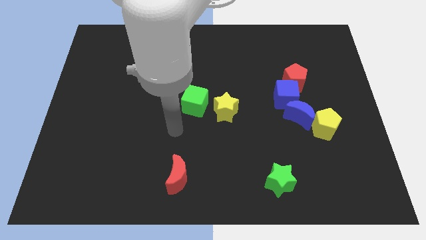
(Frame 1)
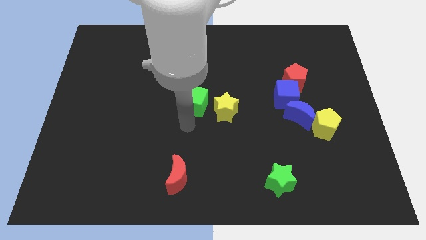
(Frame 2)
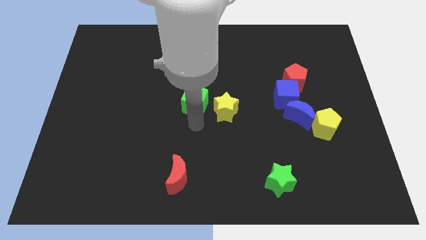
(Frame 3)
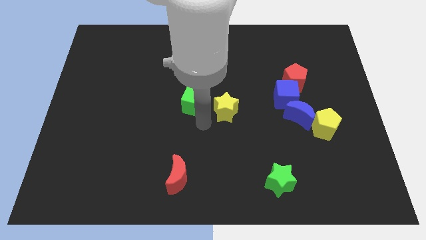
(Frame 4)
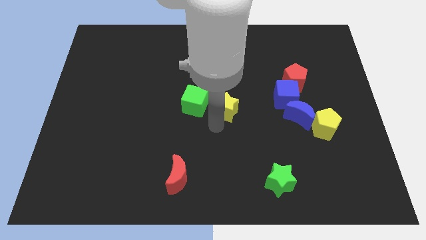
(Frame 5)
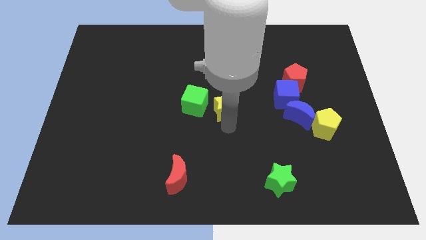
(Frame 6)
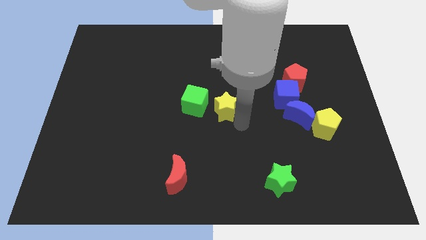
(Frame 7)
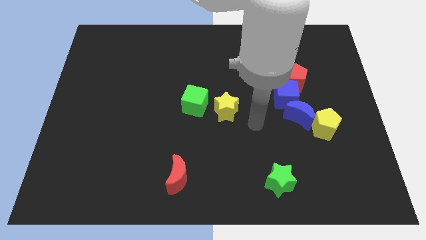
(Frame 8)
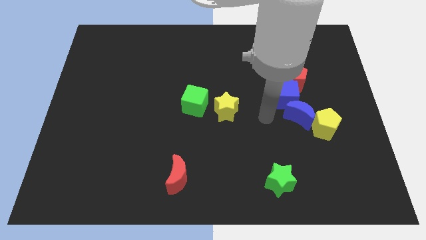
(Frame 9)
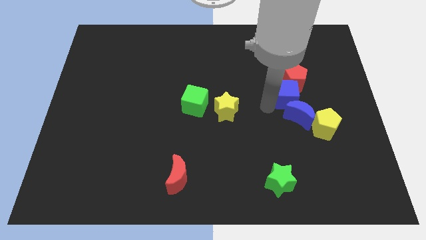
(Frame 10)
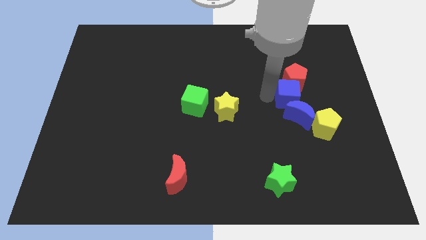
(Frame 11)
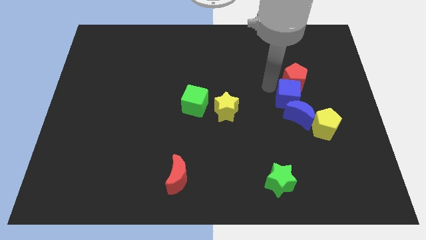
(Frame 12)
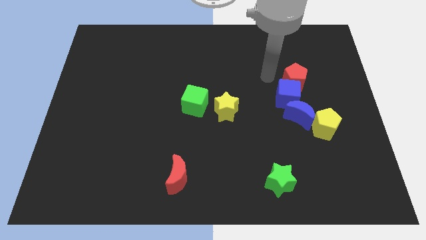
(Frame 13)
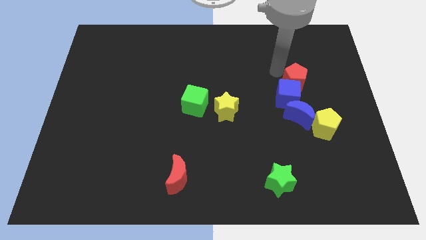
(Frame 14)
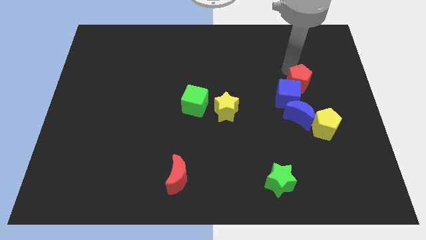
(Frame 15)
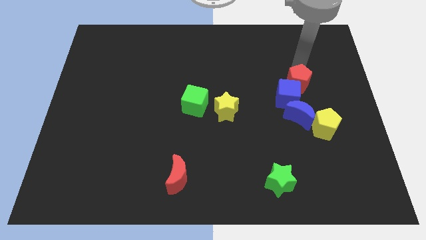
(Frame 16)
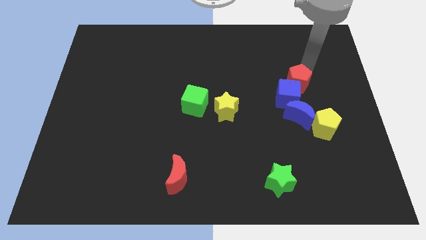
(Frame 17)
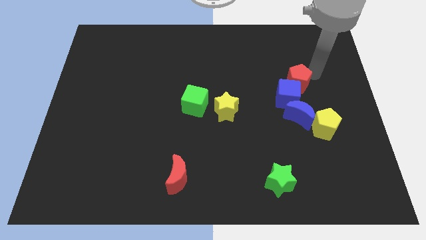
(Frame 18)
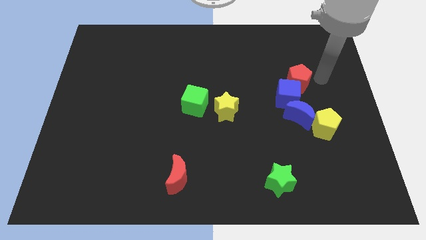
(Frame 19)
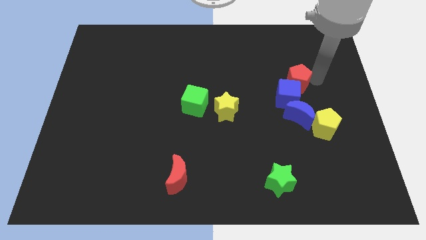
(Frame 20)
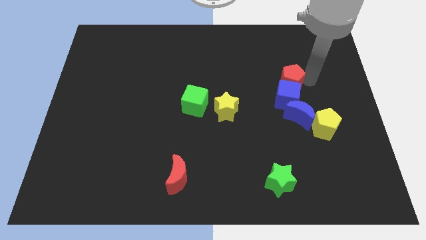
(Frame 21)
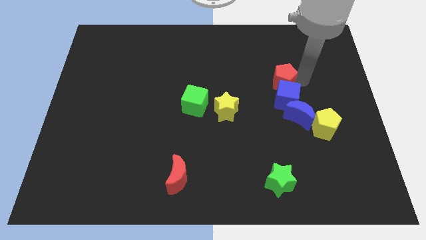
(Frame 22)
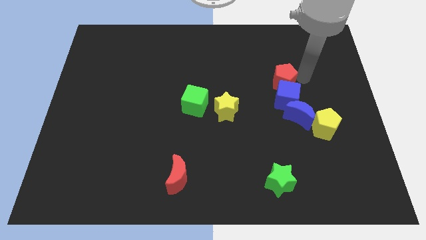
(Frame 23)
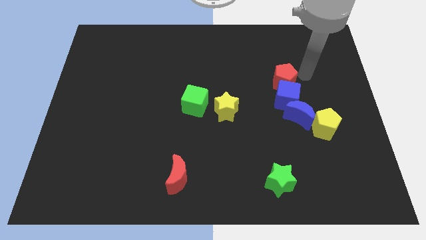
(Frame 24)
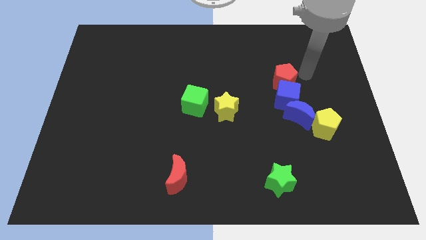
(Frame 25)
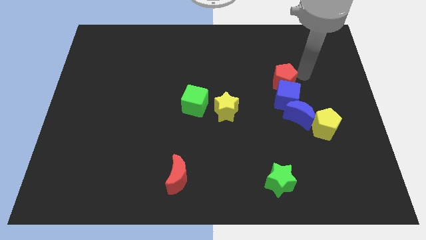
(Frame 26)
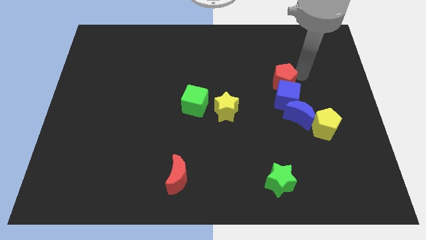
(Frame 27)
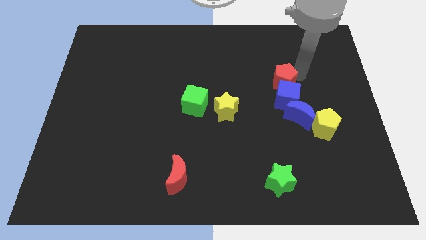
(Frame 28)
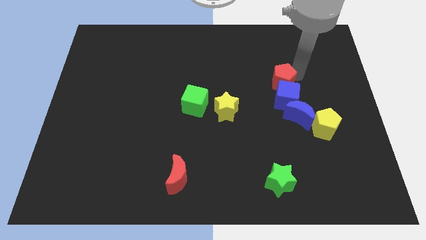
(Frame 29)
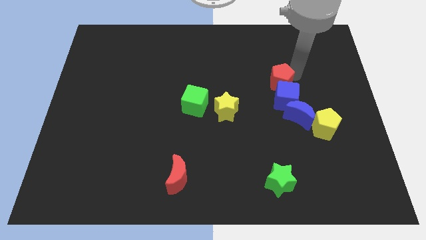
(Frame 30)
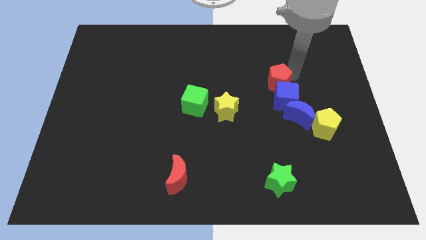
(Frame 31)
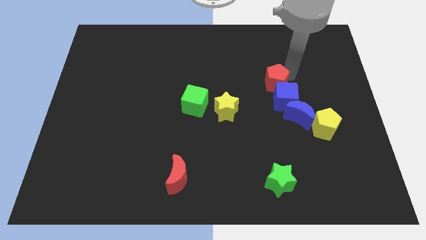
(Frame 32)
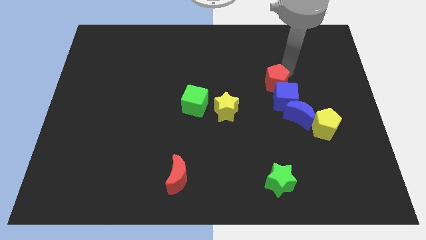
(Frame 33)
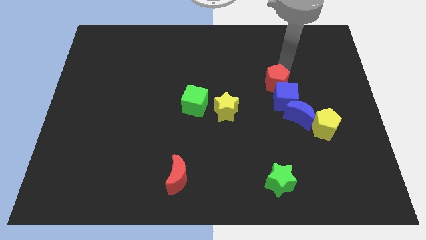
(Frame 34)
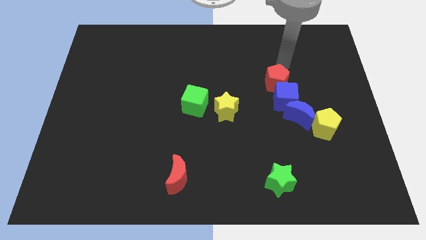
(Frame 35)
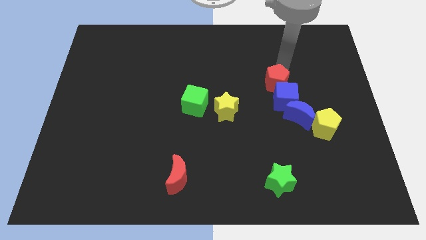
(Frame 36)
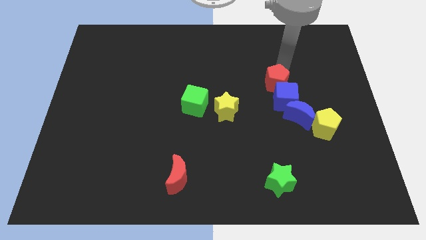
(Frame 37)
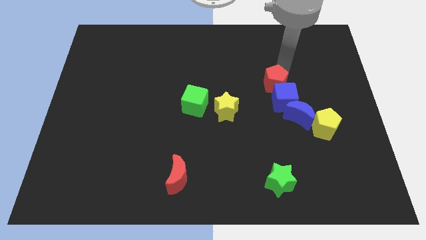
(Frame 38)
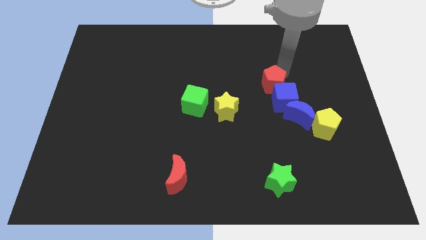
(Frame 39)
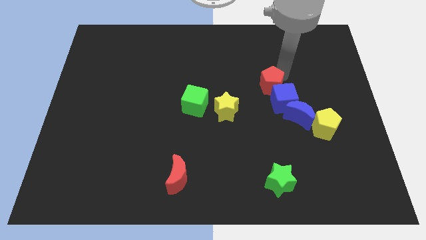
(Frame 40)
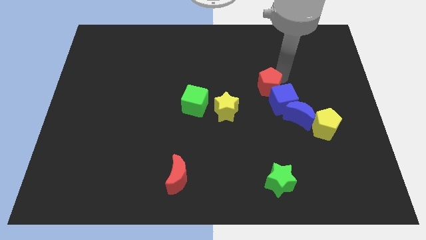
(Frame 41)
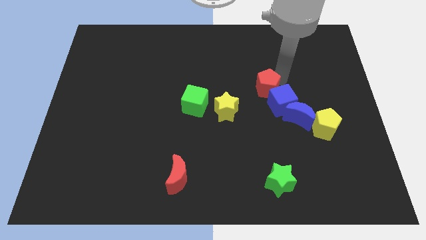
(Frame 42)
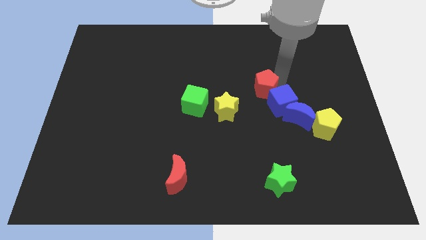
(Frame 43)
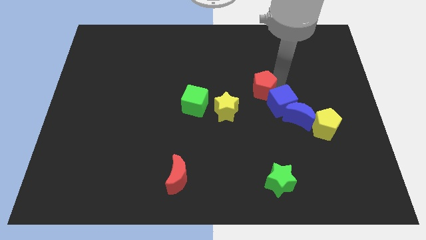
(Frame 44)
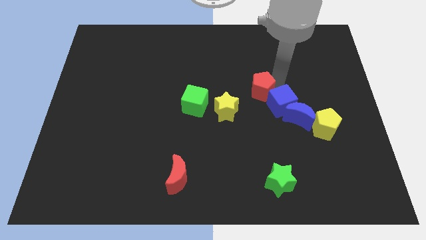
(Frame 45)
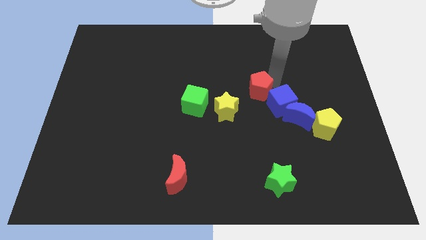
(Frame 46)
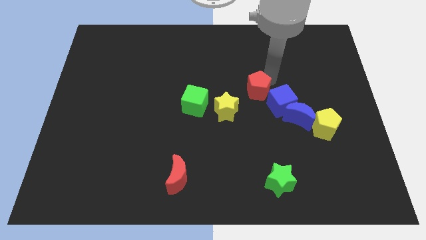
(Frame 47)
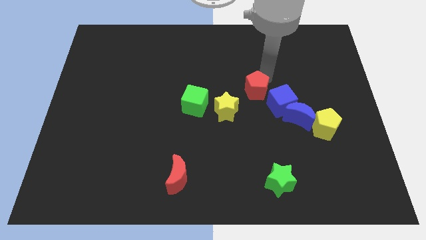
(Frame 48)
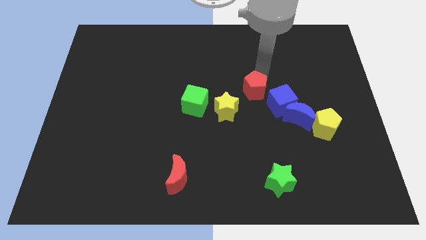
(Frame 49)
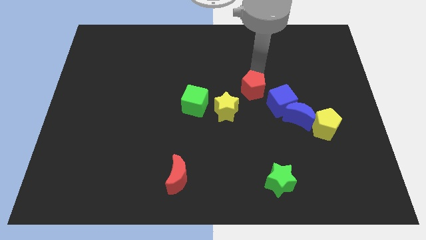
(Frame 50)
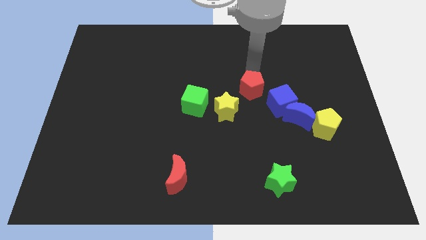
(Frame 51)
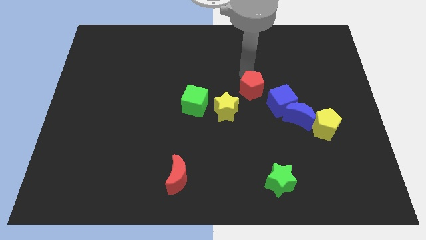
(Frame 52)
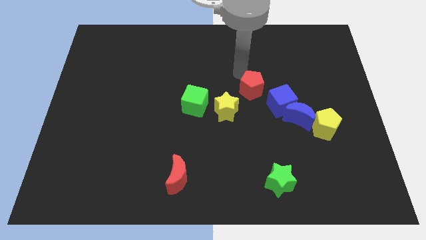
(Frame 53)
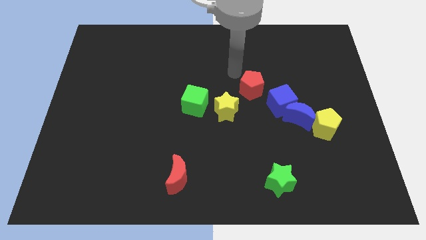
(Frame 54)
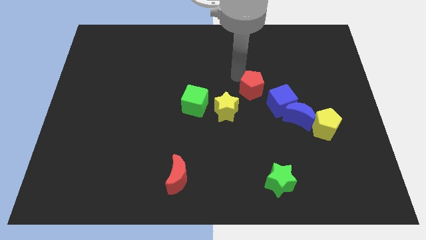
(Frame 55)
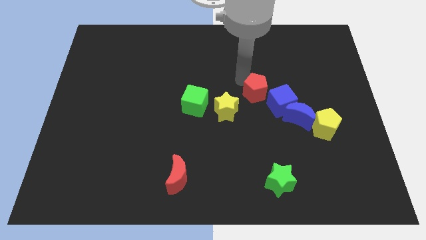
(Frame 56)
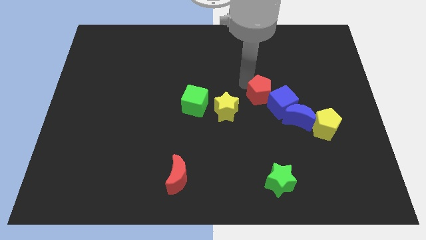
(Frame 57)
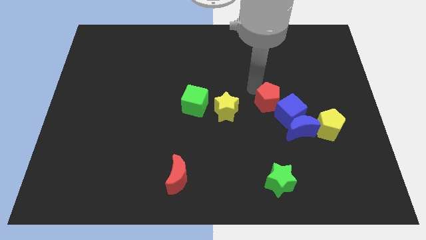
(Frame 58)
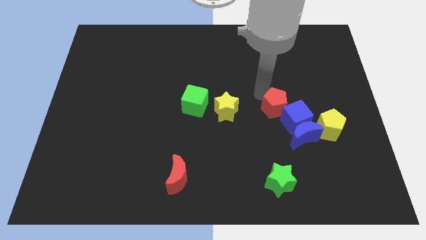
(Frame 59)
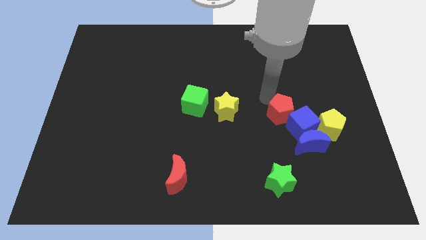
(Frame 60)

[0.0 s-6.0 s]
move the red pentagon a little bit down

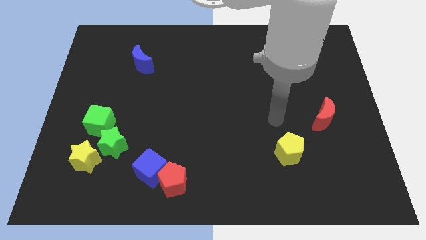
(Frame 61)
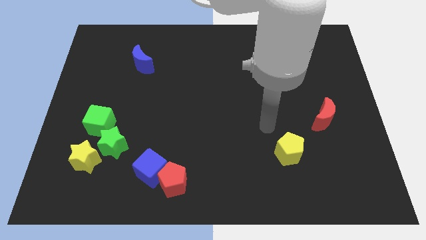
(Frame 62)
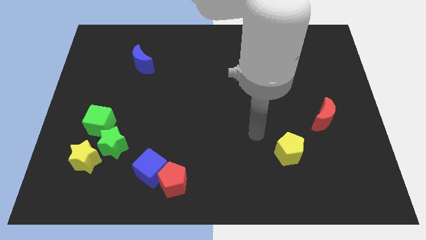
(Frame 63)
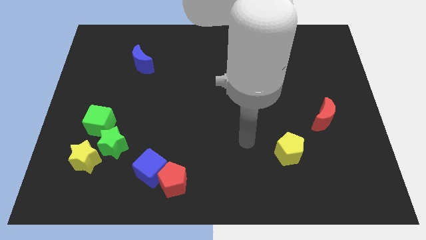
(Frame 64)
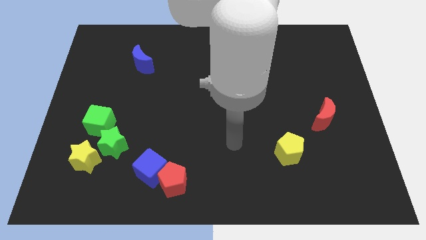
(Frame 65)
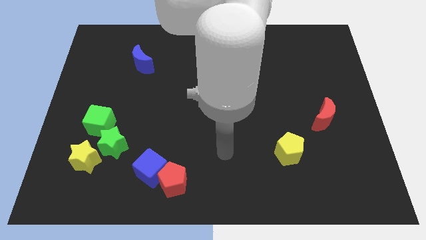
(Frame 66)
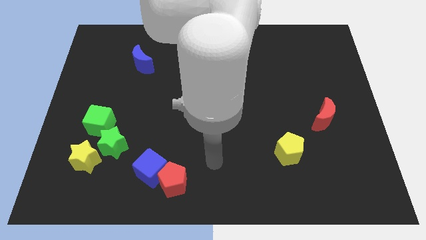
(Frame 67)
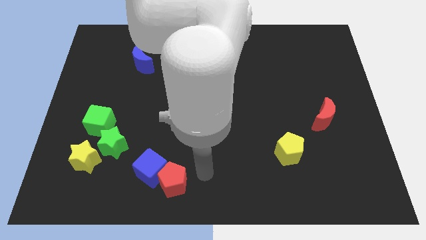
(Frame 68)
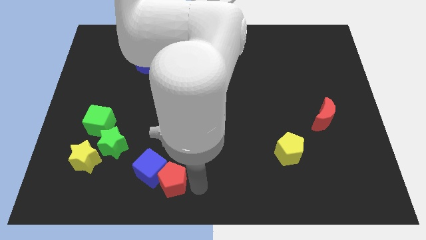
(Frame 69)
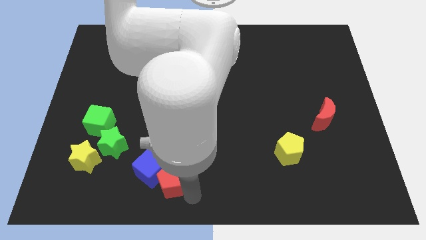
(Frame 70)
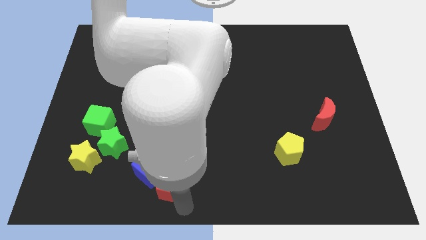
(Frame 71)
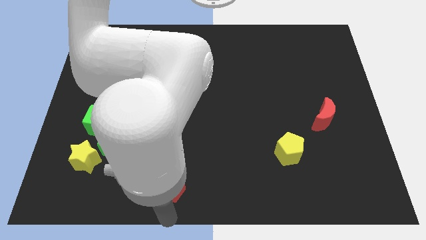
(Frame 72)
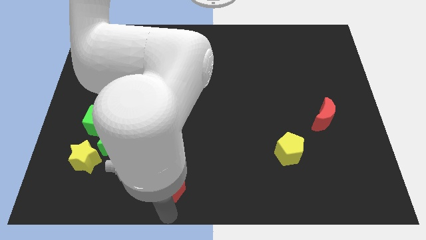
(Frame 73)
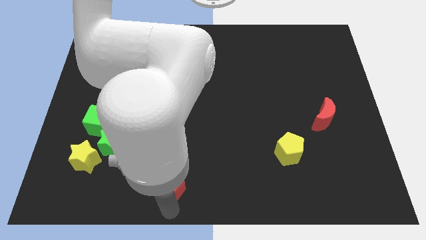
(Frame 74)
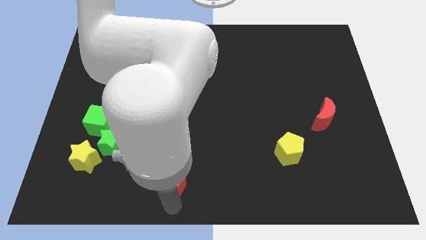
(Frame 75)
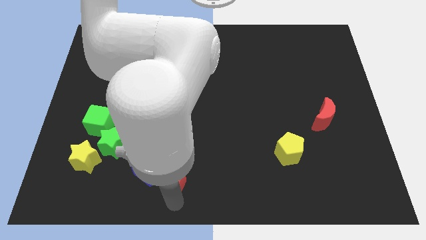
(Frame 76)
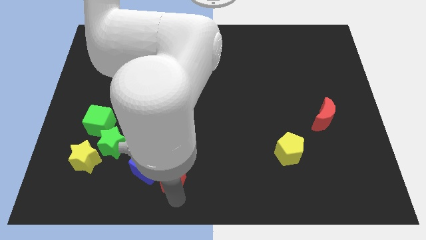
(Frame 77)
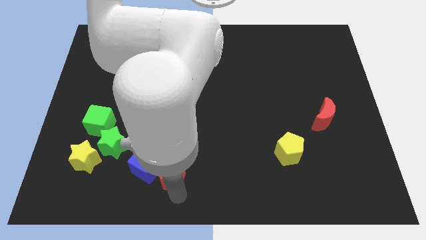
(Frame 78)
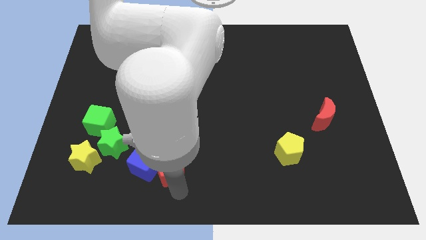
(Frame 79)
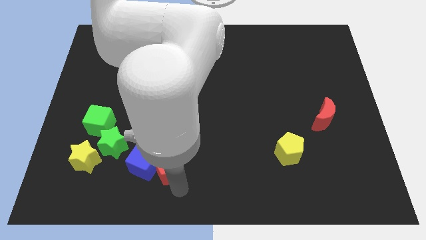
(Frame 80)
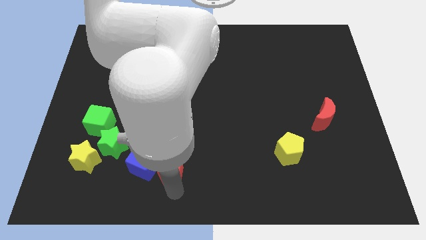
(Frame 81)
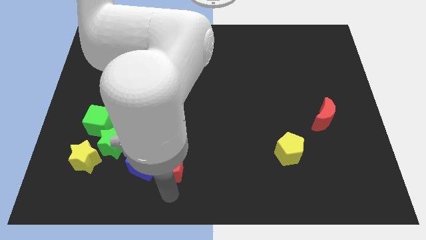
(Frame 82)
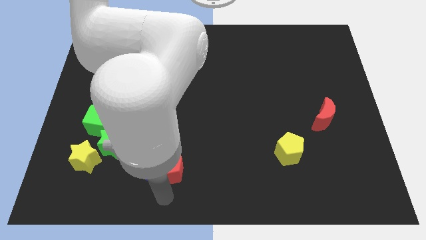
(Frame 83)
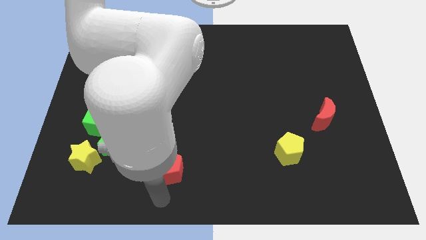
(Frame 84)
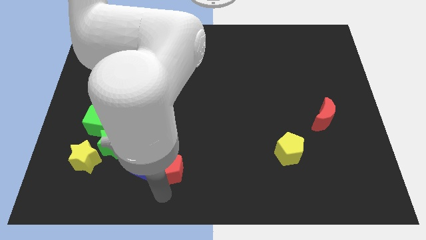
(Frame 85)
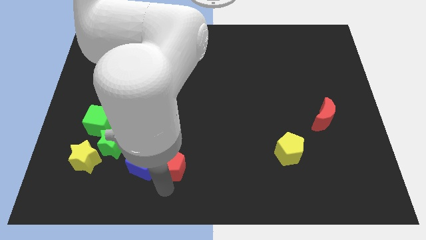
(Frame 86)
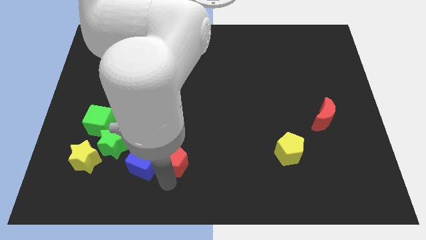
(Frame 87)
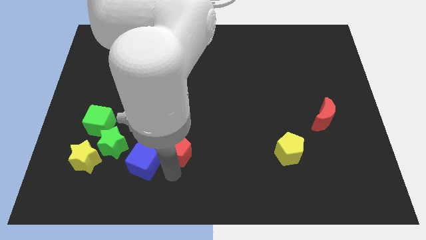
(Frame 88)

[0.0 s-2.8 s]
slightly move the red pentagon upwards
